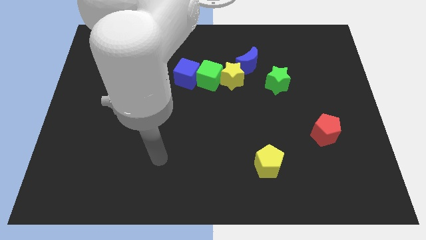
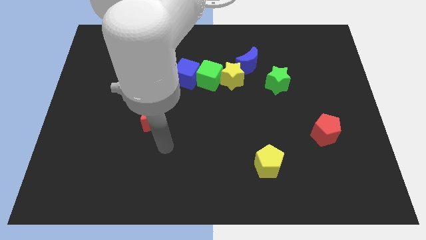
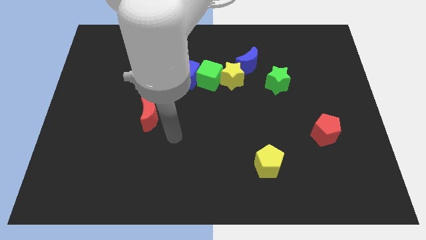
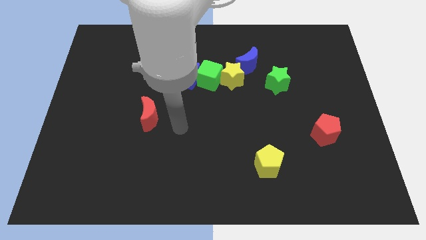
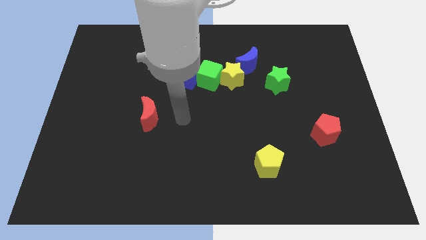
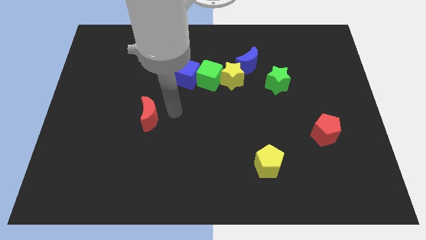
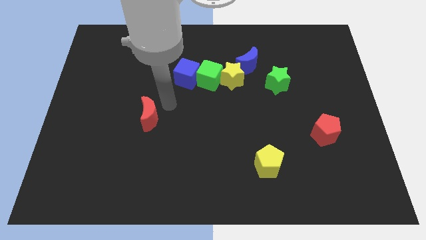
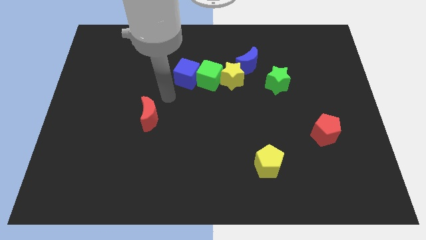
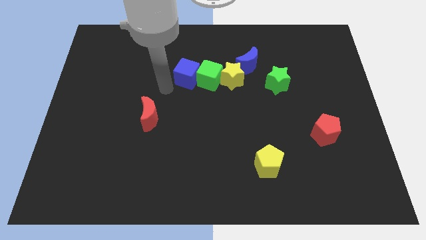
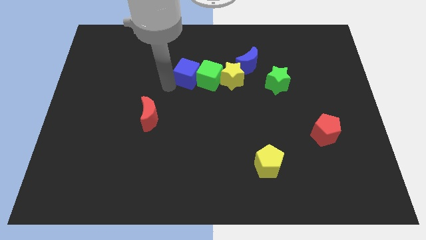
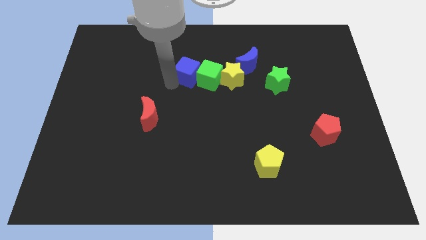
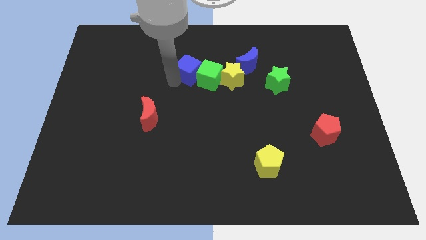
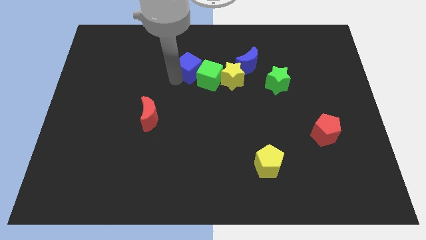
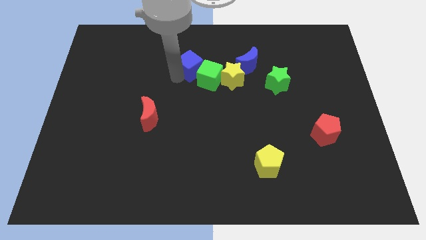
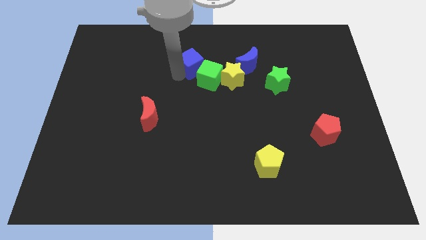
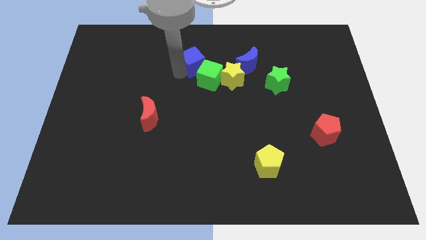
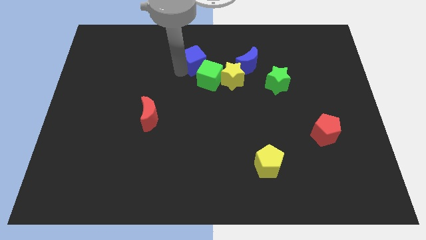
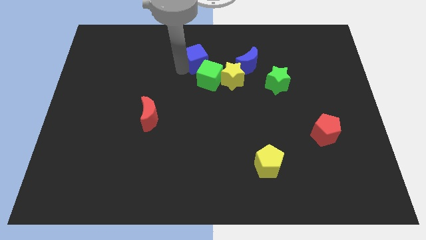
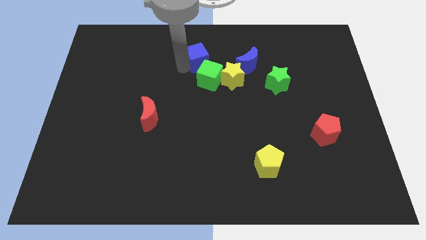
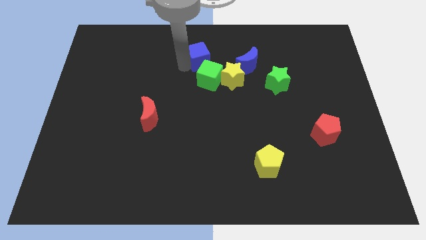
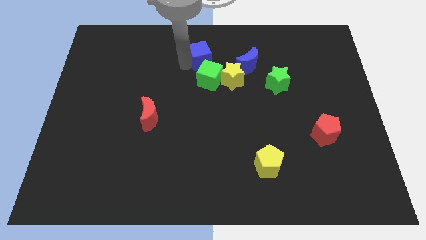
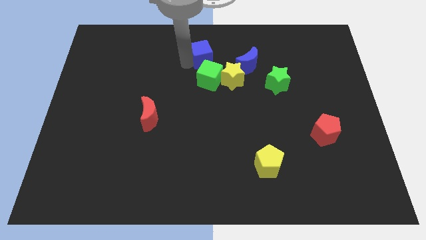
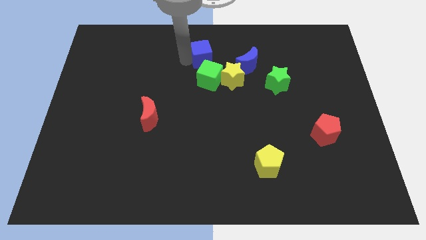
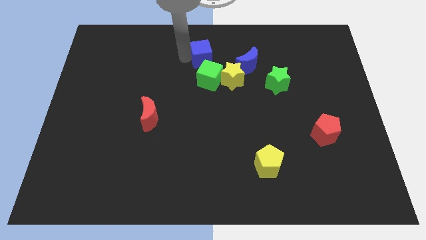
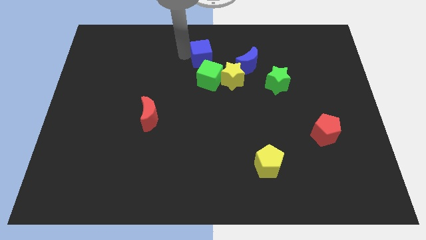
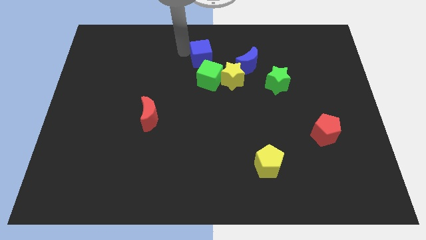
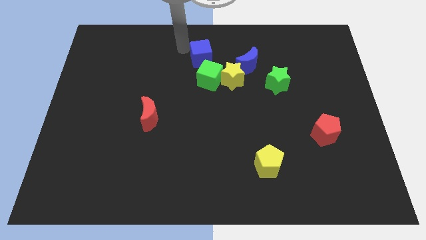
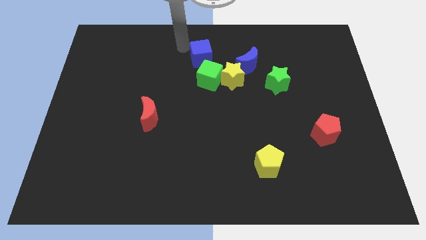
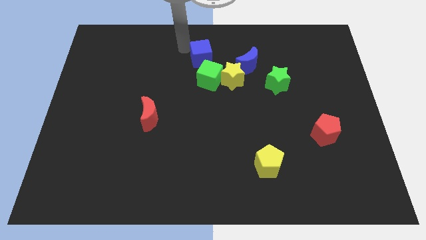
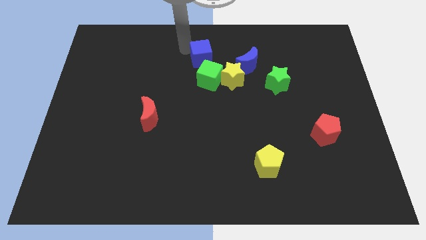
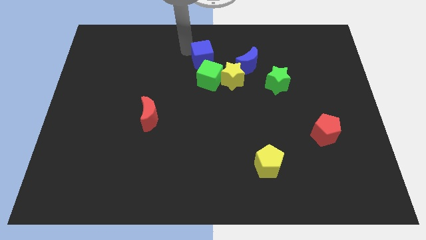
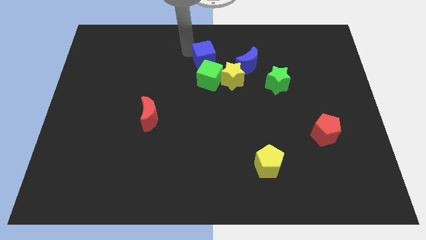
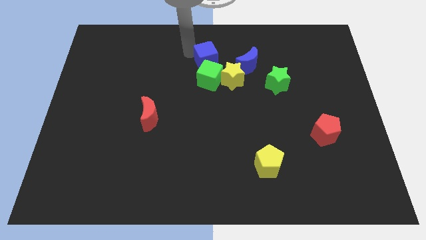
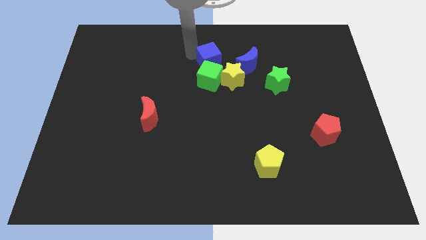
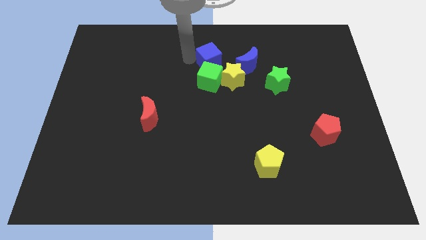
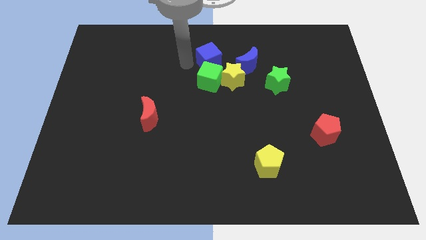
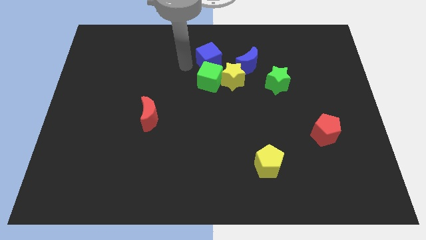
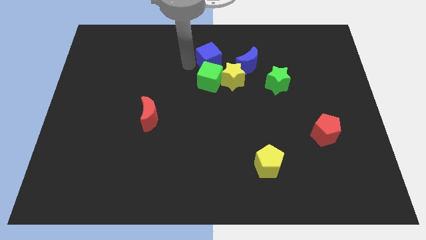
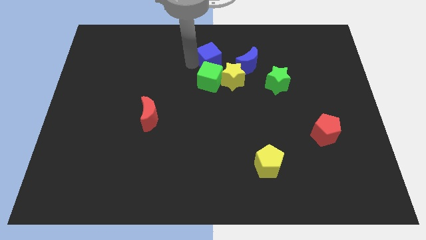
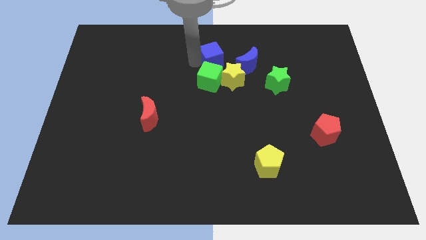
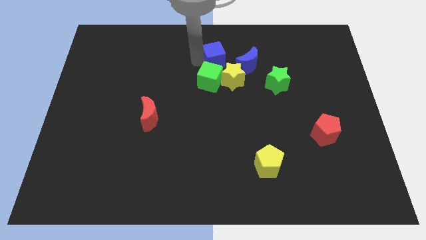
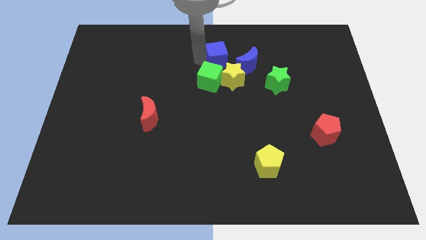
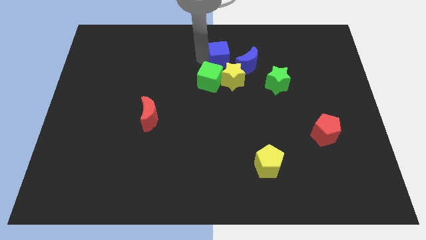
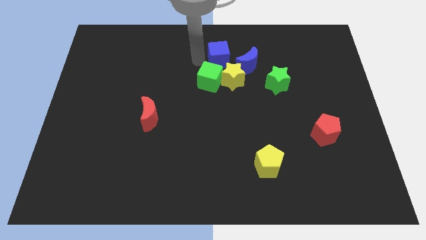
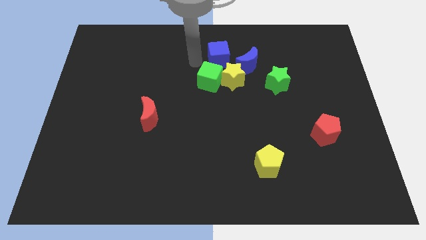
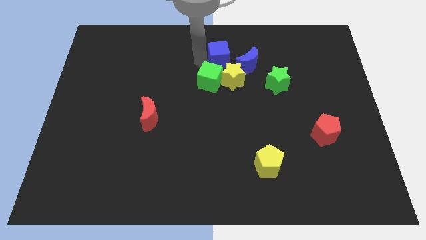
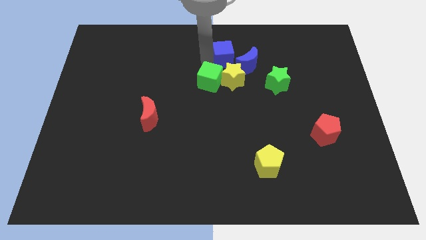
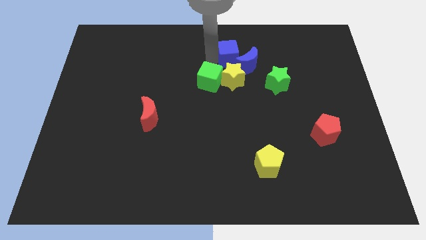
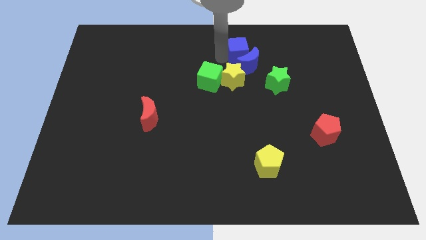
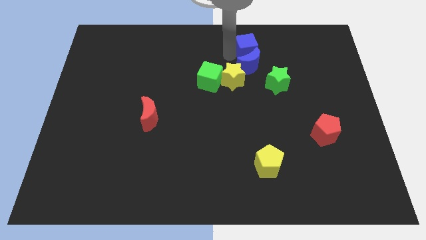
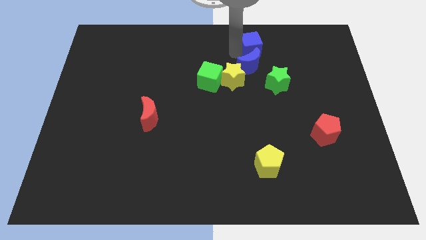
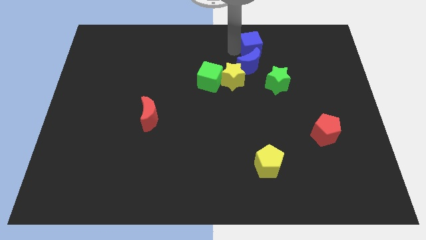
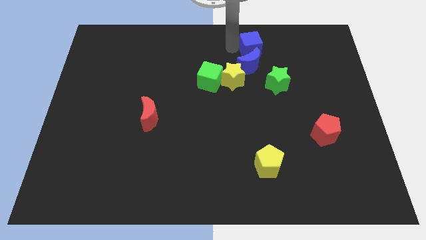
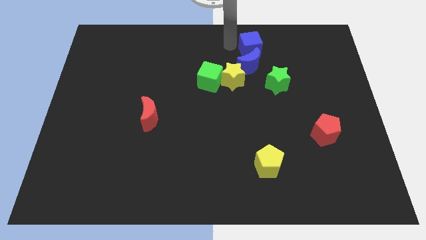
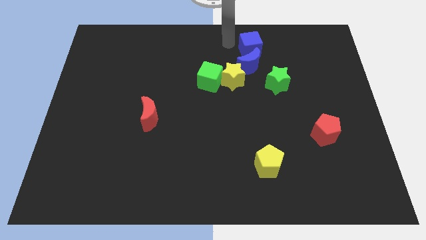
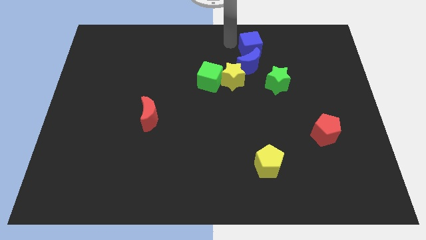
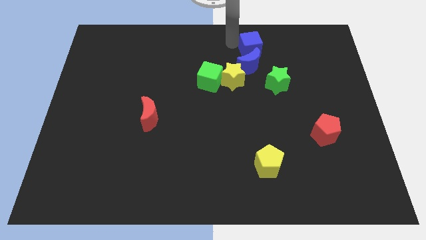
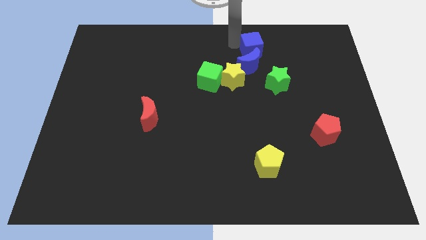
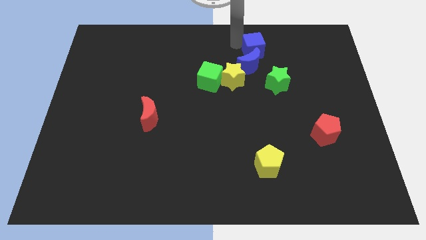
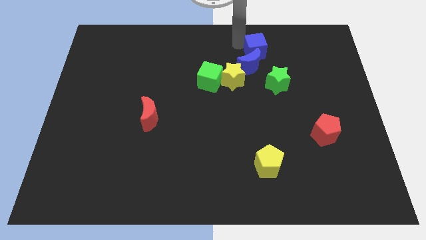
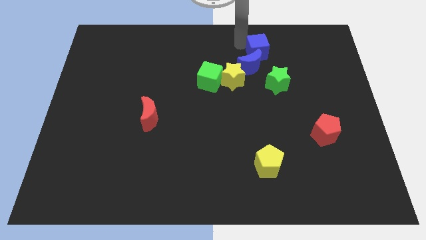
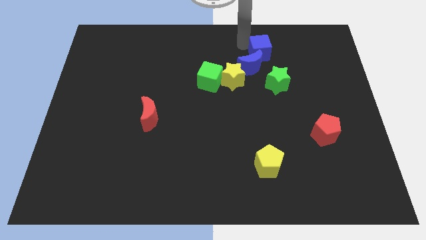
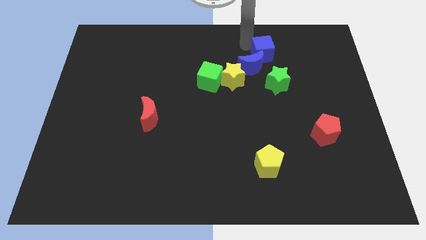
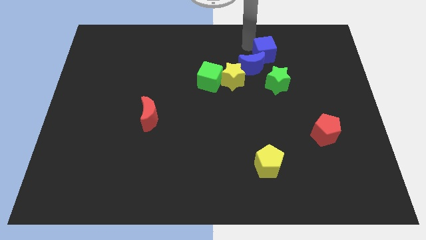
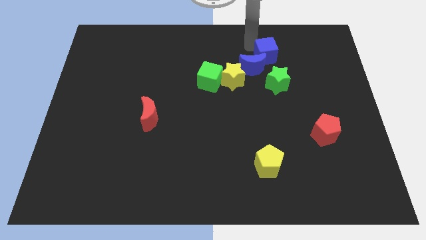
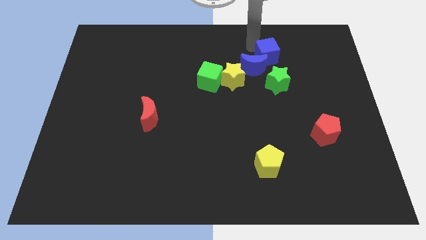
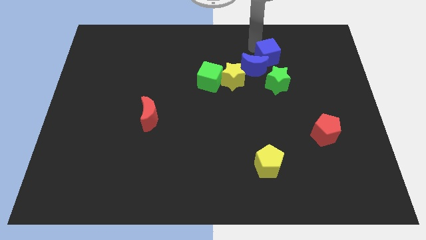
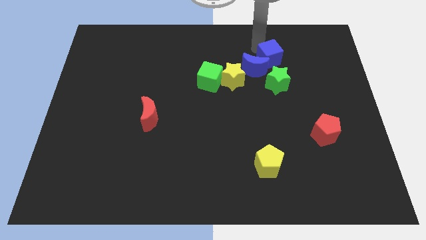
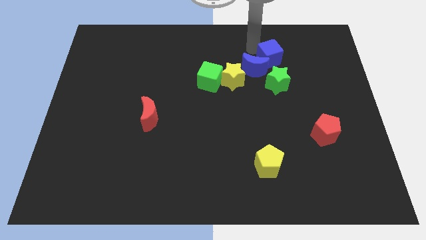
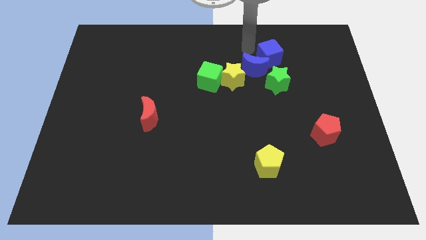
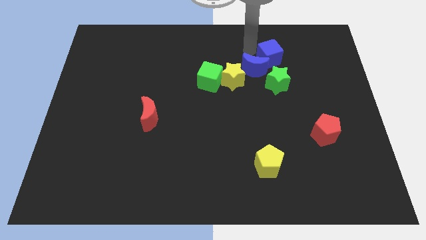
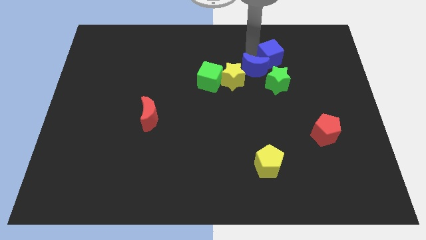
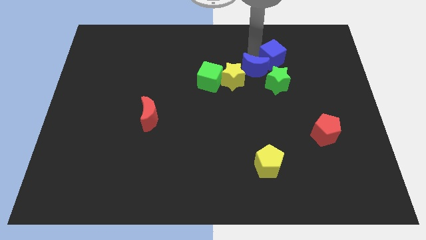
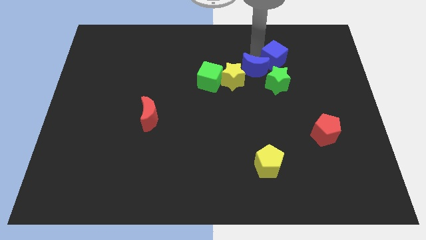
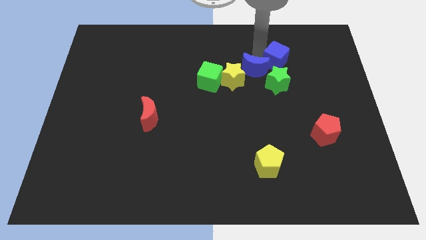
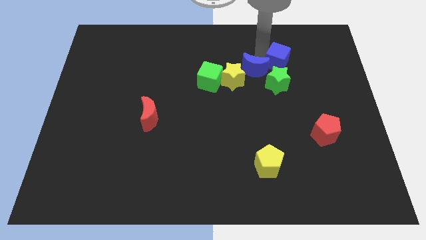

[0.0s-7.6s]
push the blue cube diagonally up and to the right of the green star

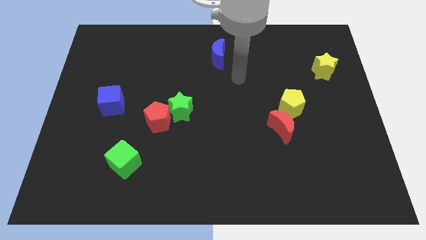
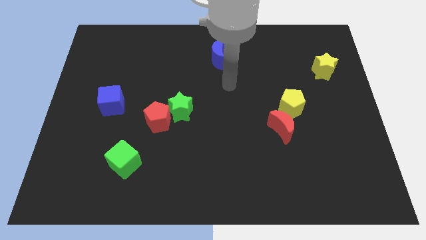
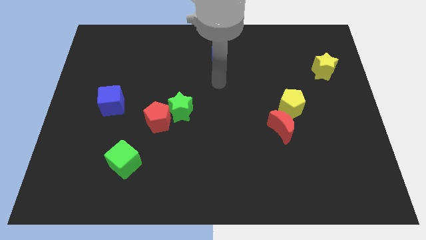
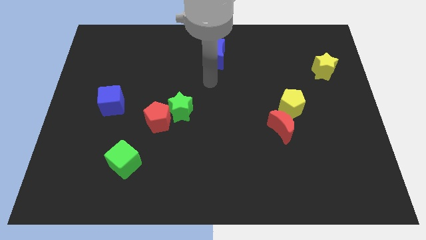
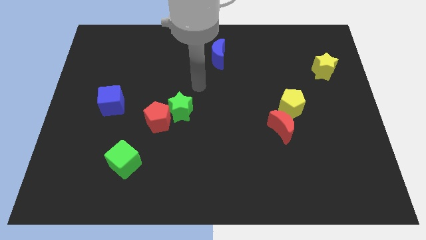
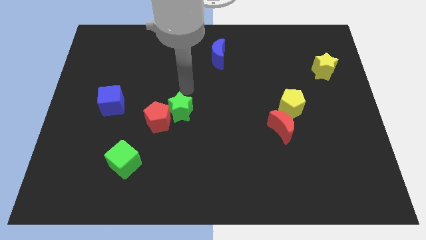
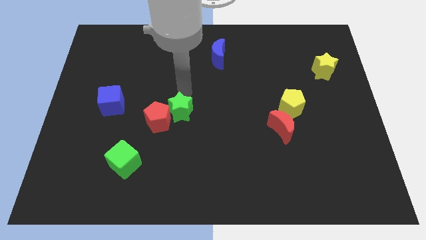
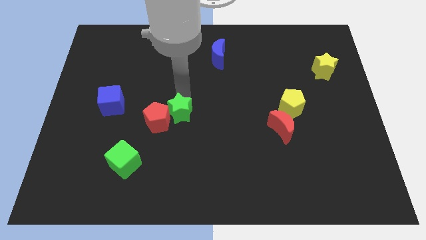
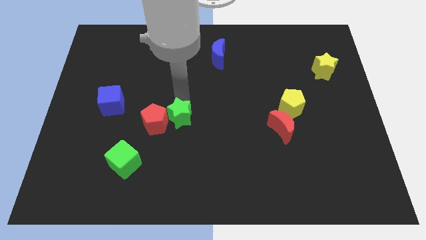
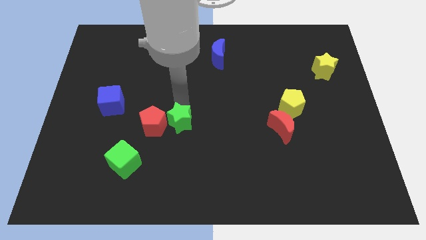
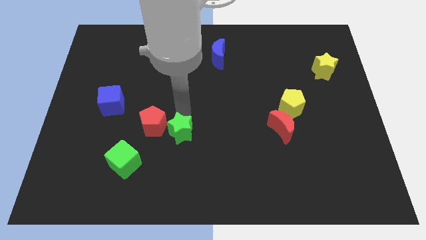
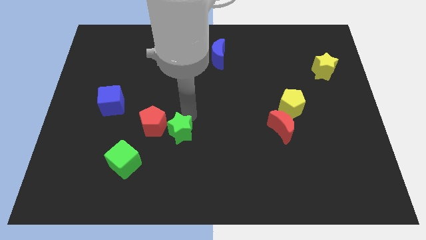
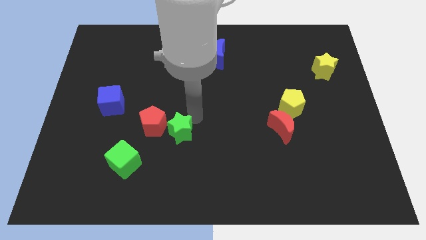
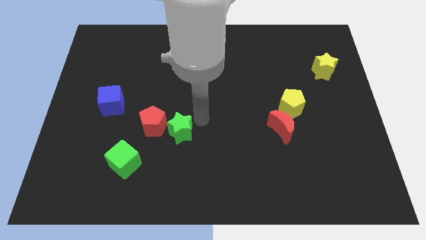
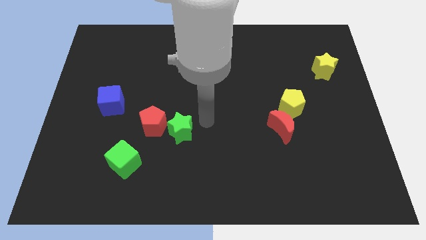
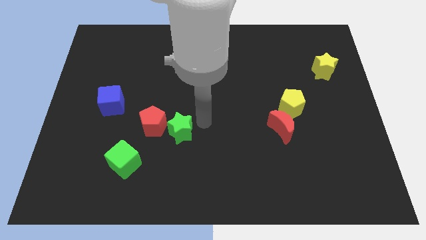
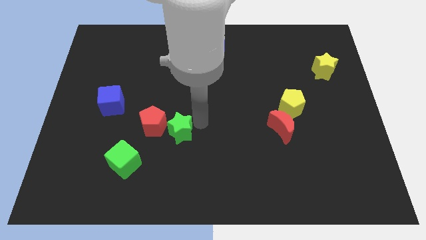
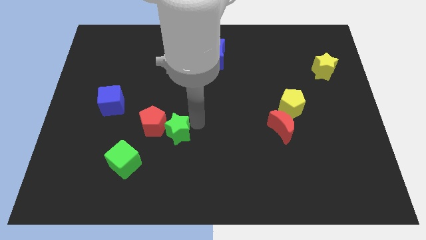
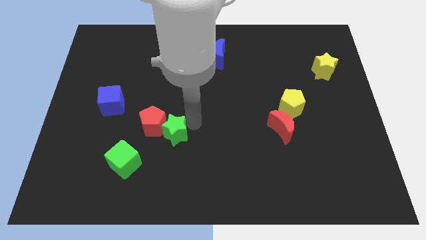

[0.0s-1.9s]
move the green star to the top right side of the green cube
